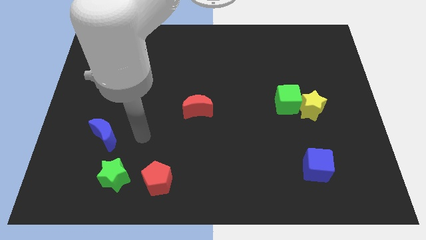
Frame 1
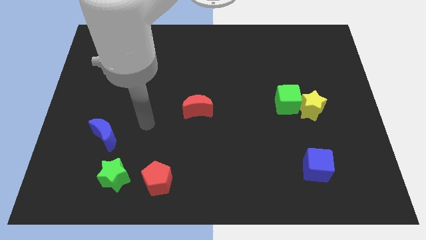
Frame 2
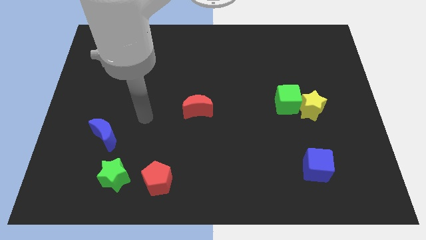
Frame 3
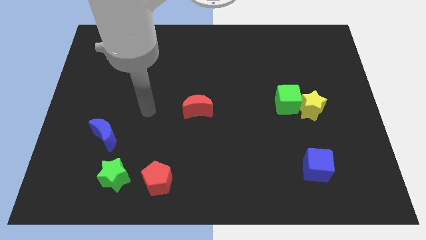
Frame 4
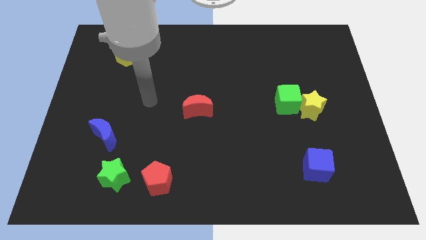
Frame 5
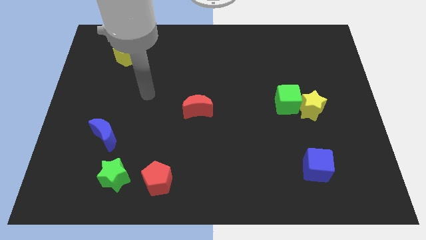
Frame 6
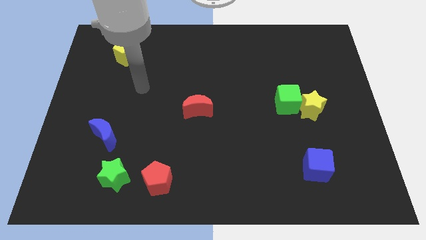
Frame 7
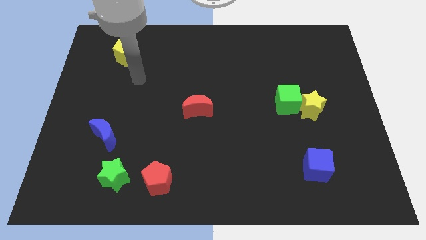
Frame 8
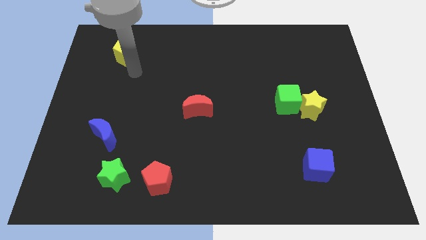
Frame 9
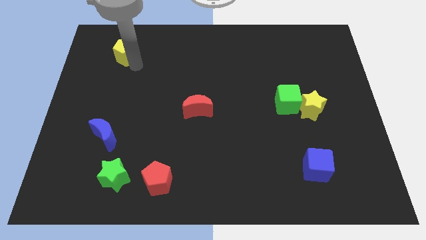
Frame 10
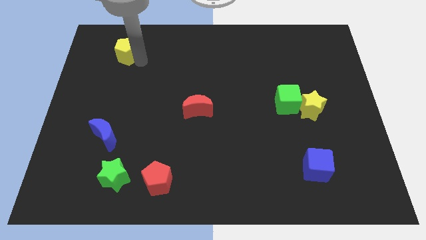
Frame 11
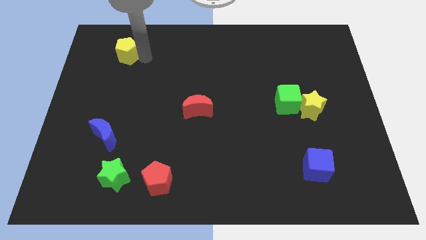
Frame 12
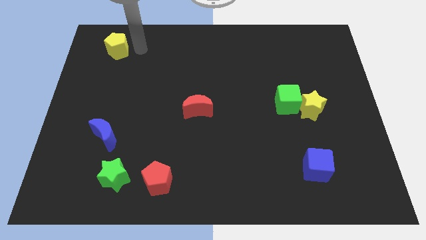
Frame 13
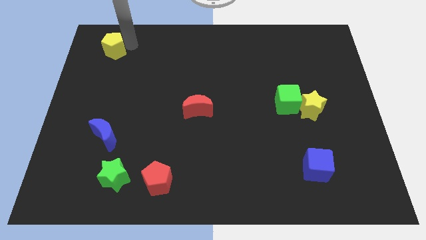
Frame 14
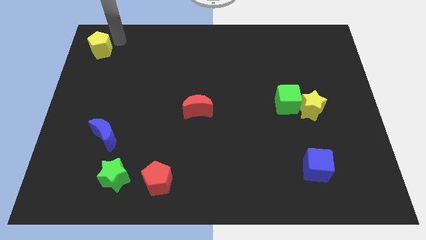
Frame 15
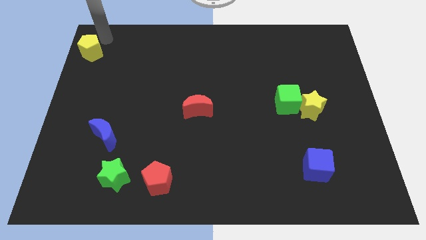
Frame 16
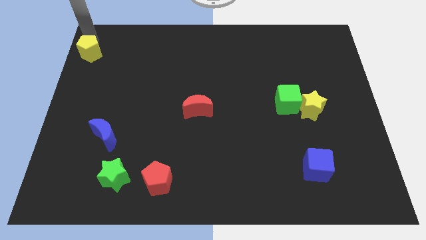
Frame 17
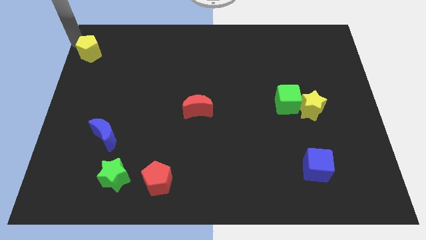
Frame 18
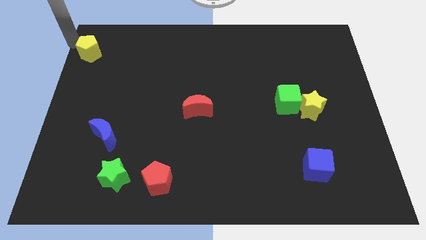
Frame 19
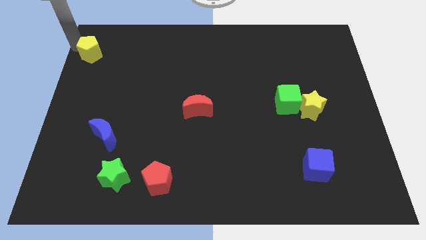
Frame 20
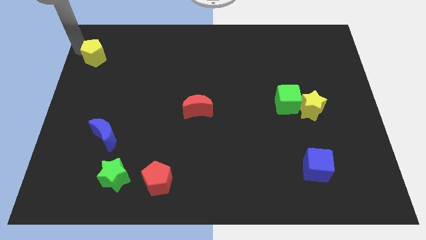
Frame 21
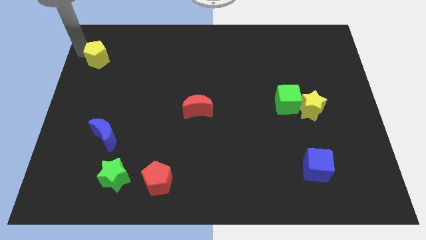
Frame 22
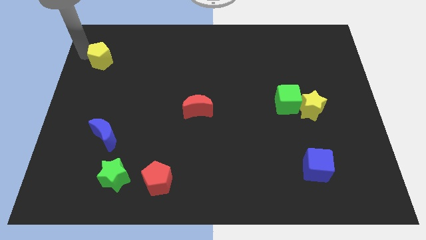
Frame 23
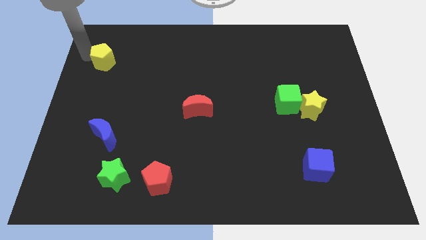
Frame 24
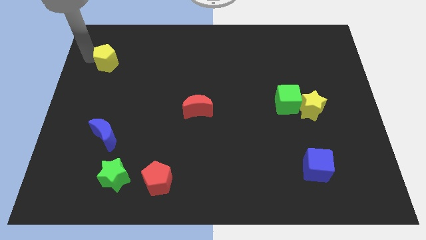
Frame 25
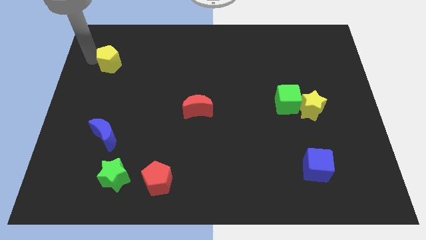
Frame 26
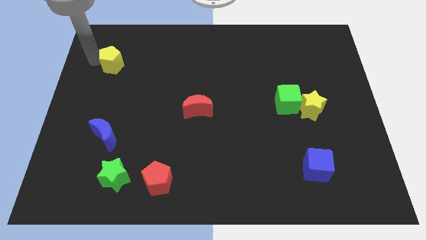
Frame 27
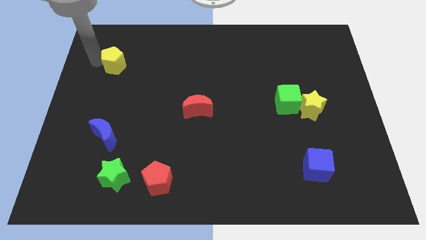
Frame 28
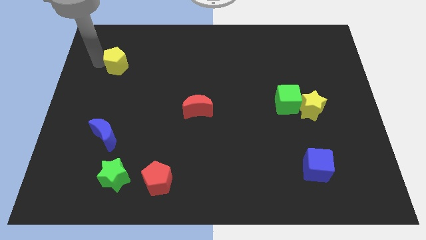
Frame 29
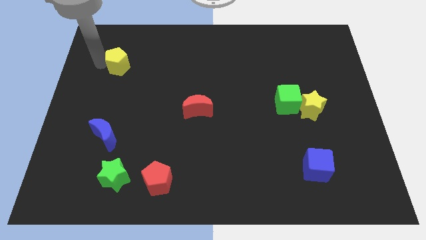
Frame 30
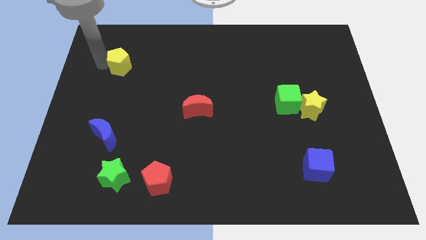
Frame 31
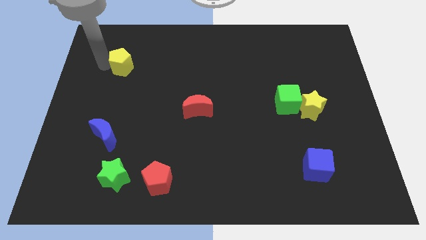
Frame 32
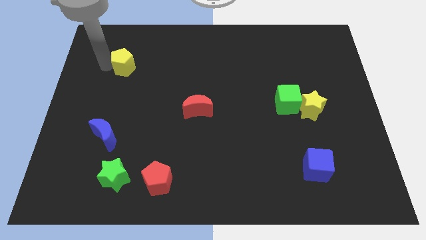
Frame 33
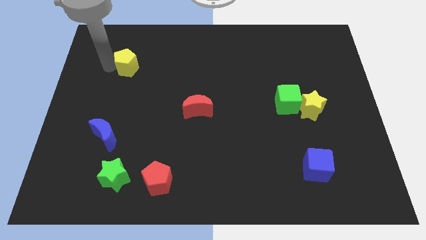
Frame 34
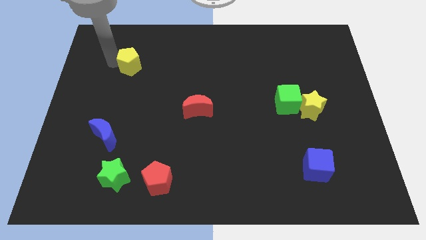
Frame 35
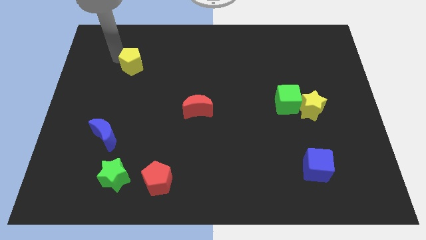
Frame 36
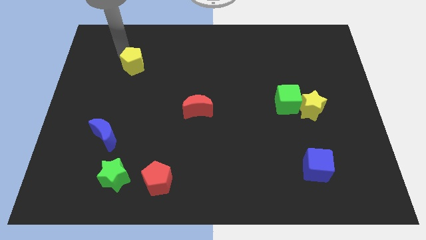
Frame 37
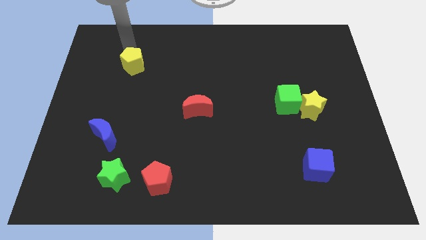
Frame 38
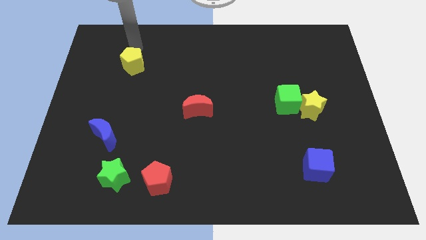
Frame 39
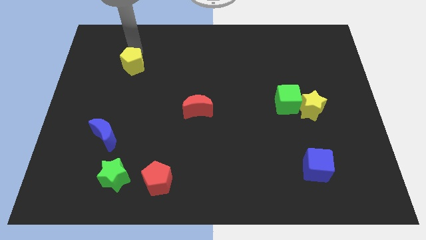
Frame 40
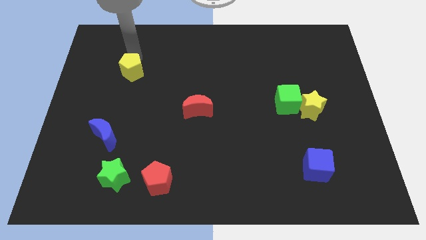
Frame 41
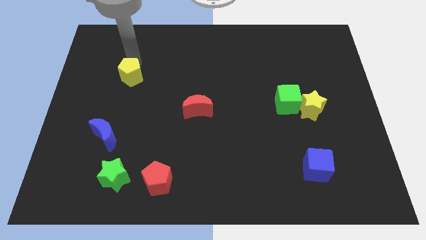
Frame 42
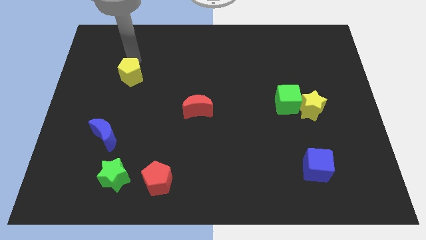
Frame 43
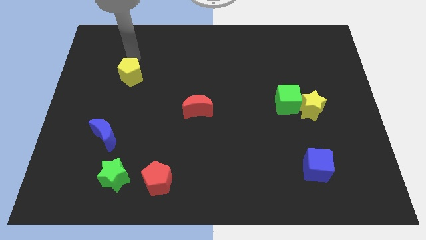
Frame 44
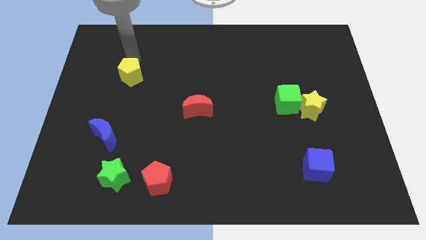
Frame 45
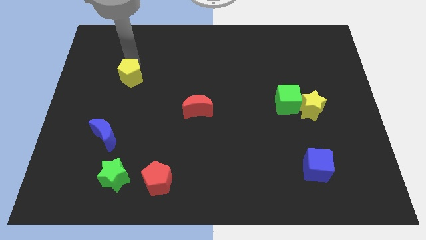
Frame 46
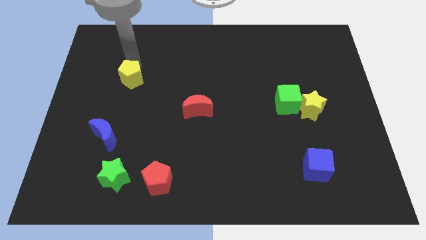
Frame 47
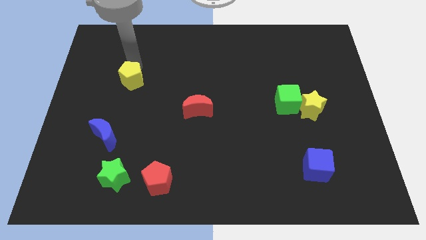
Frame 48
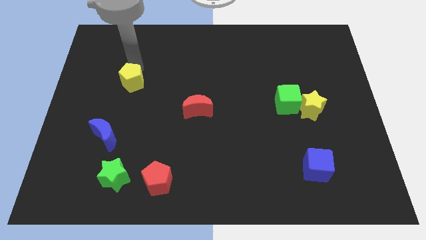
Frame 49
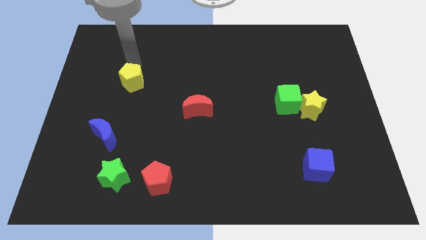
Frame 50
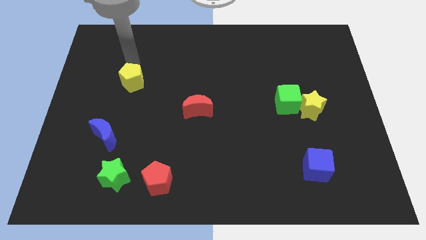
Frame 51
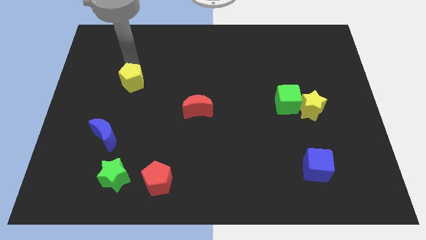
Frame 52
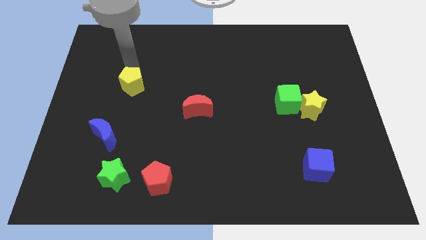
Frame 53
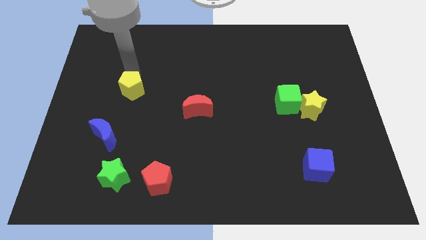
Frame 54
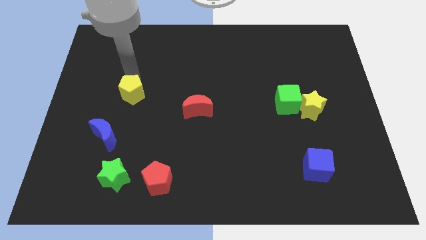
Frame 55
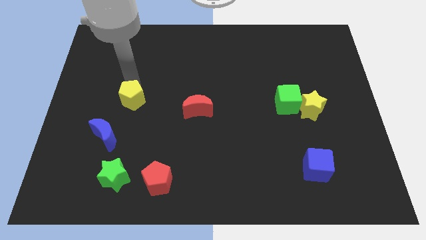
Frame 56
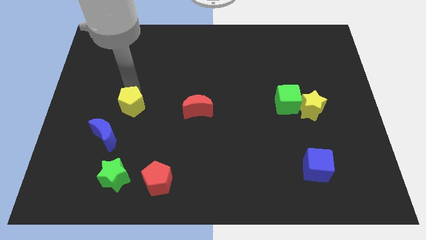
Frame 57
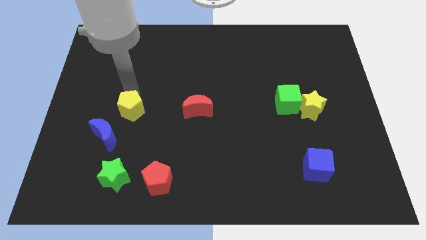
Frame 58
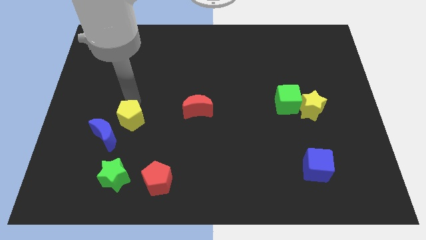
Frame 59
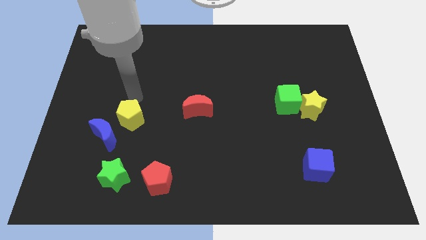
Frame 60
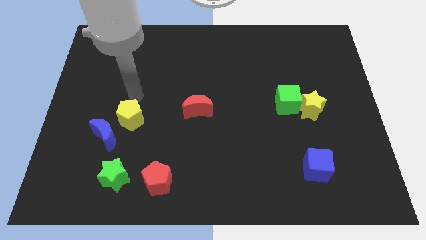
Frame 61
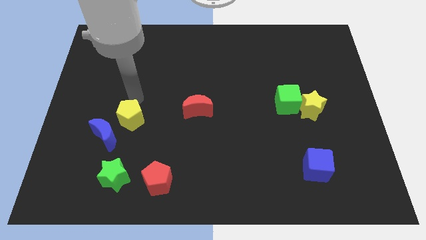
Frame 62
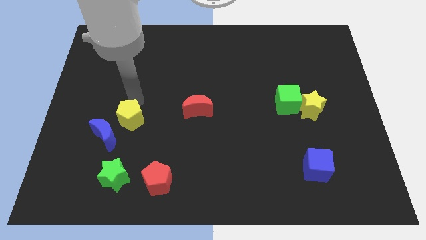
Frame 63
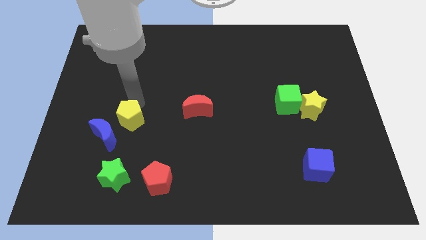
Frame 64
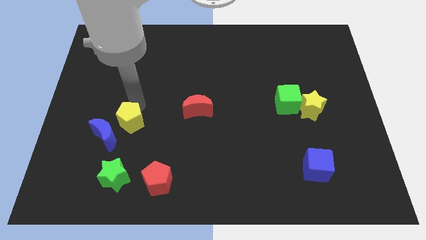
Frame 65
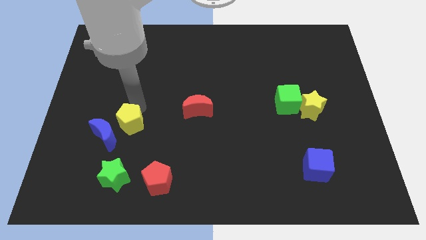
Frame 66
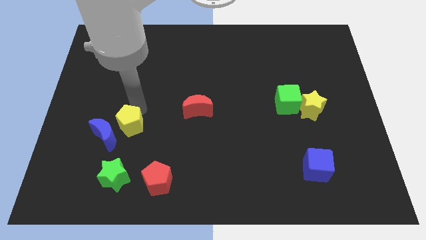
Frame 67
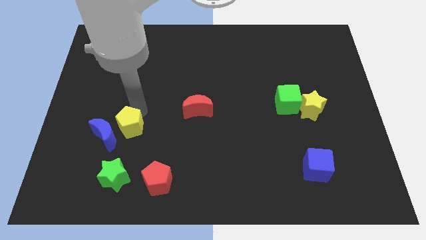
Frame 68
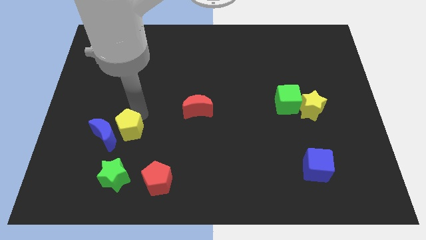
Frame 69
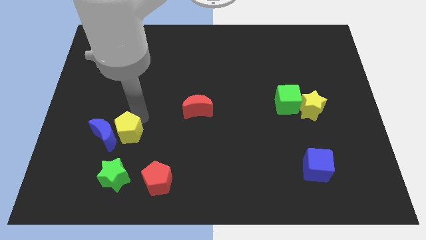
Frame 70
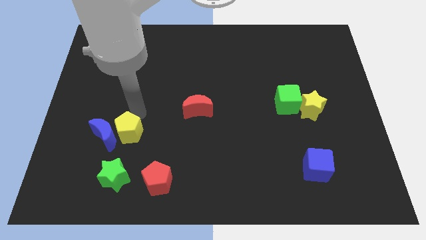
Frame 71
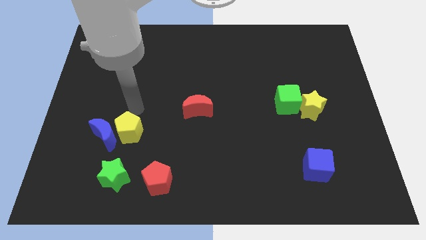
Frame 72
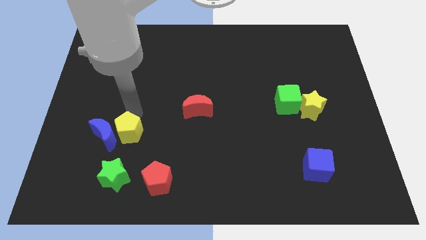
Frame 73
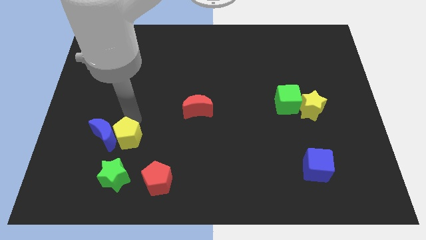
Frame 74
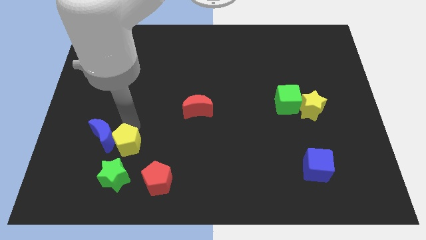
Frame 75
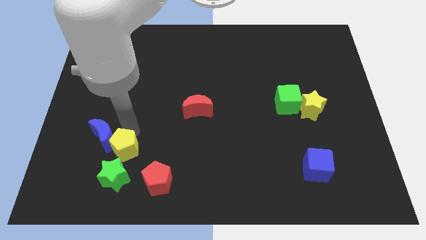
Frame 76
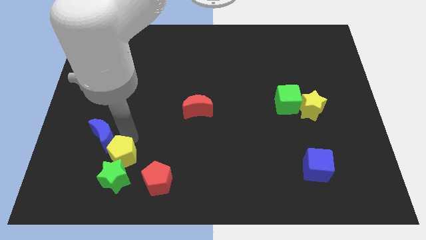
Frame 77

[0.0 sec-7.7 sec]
slide the yellow pentagon close to the green star
